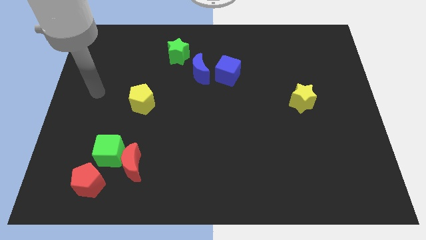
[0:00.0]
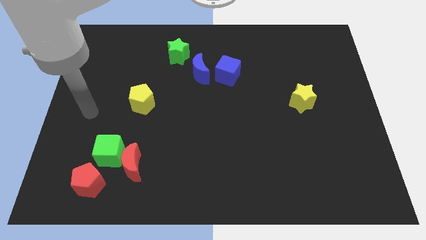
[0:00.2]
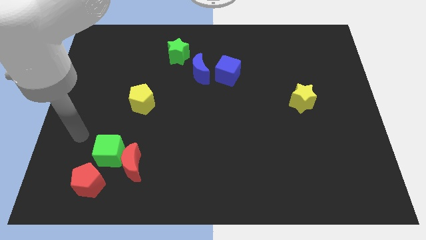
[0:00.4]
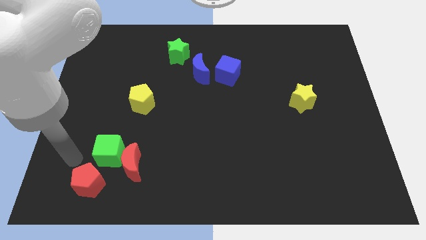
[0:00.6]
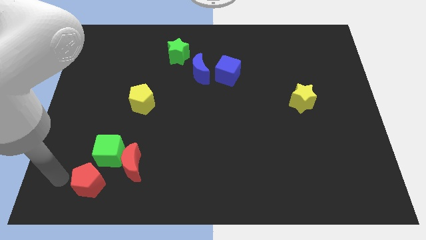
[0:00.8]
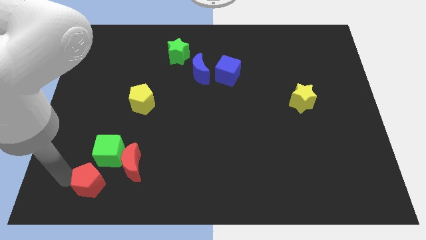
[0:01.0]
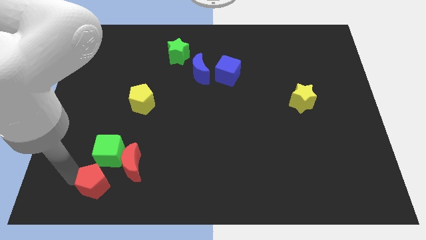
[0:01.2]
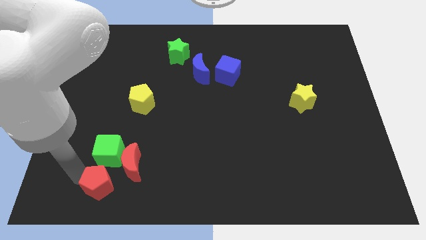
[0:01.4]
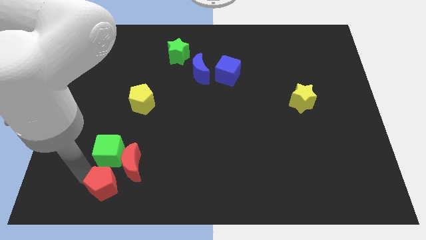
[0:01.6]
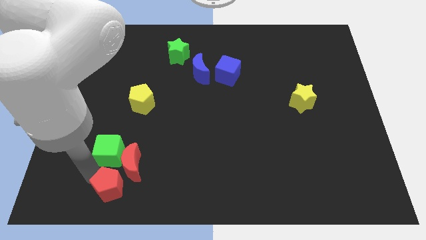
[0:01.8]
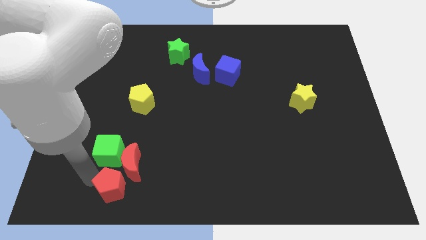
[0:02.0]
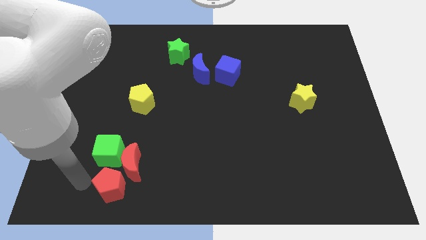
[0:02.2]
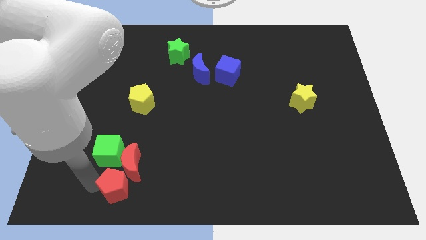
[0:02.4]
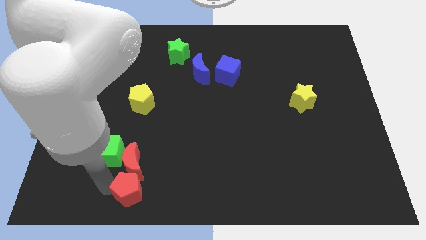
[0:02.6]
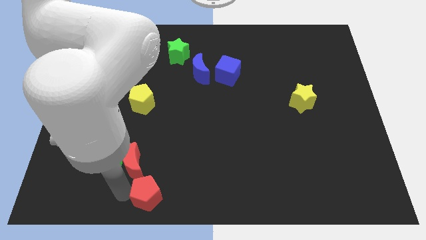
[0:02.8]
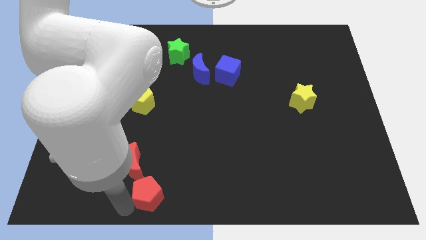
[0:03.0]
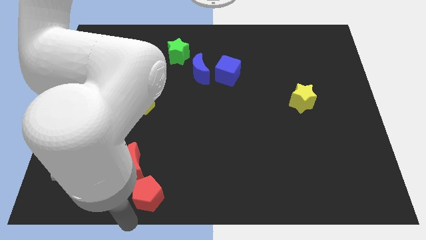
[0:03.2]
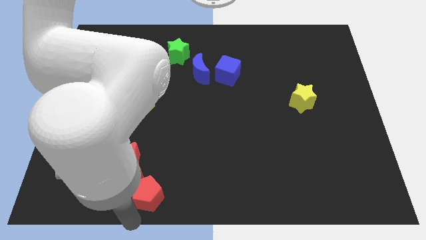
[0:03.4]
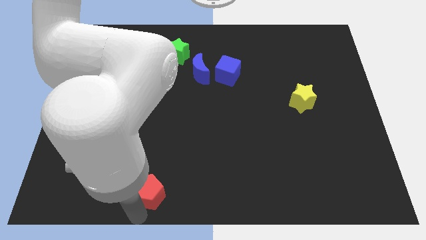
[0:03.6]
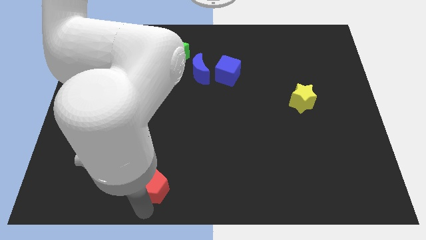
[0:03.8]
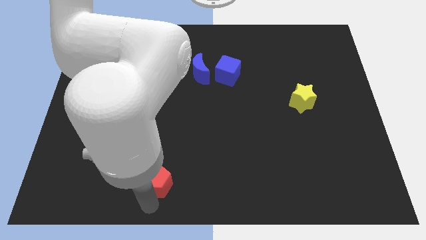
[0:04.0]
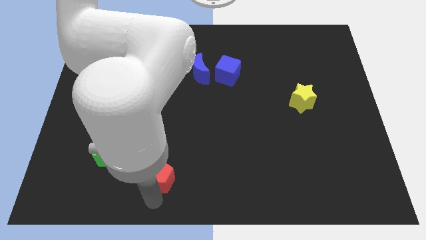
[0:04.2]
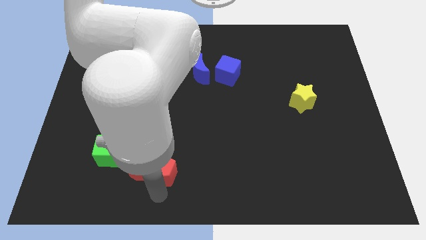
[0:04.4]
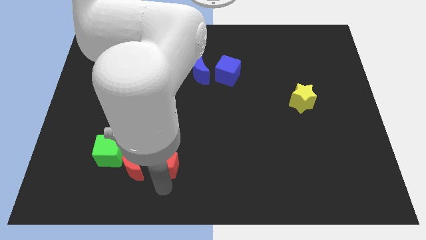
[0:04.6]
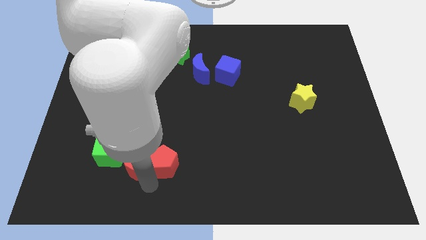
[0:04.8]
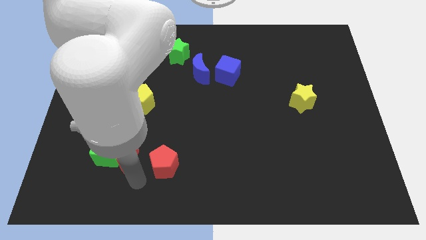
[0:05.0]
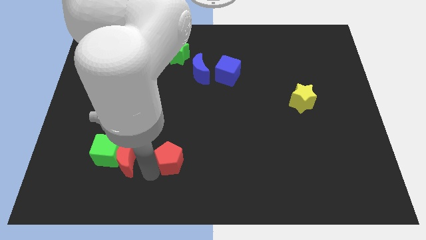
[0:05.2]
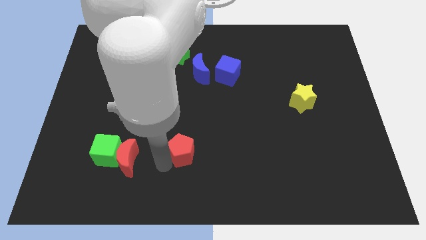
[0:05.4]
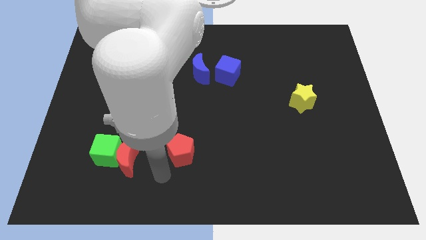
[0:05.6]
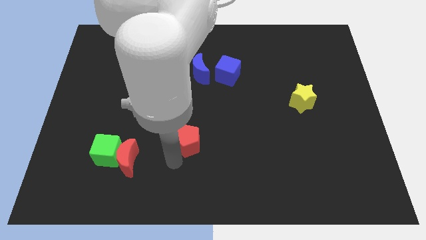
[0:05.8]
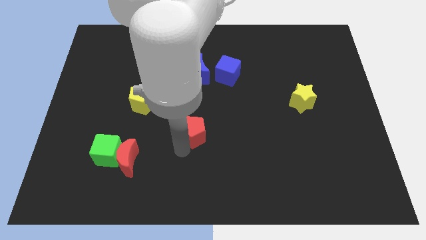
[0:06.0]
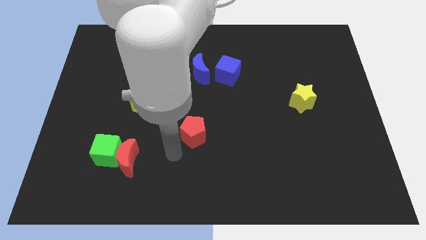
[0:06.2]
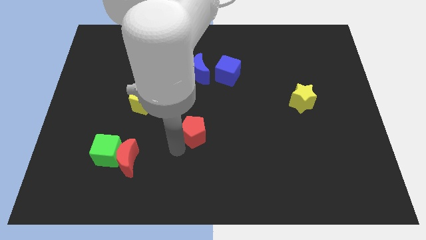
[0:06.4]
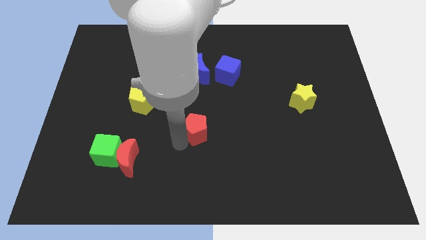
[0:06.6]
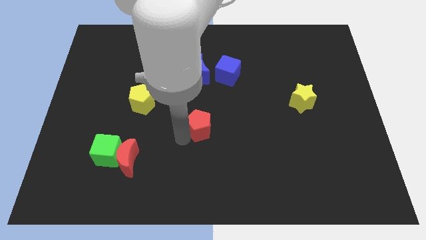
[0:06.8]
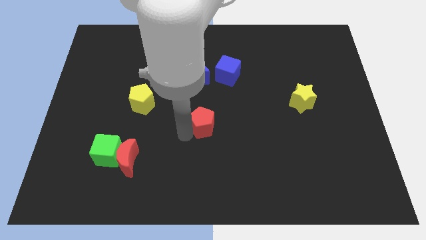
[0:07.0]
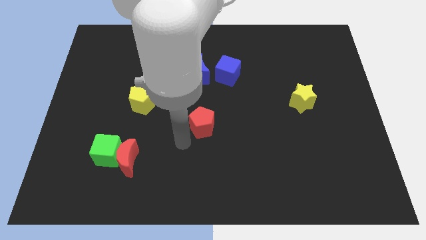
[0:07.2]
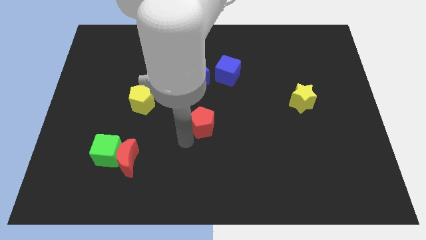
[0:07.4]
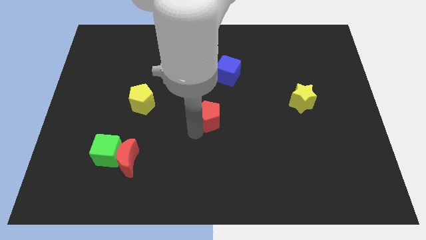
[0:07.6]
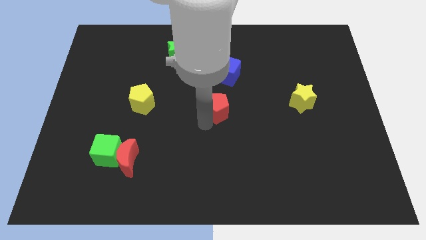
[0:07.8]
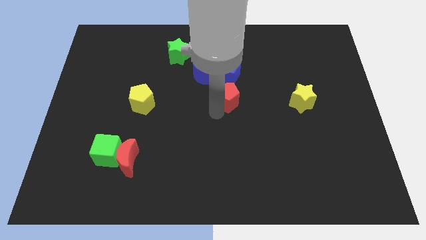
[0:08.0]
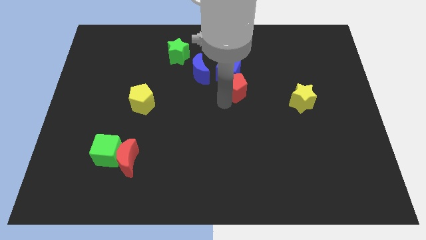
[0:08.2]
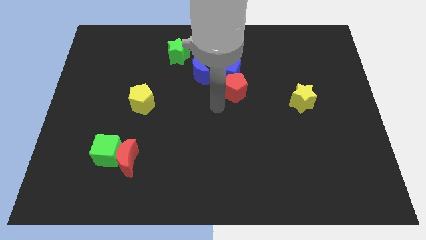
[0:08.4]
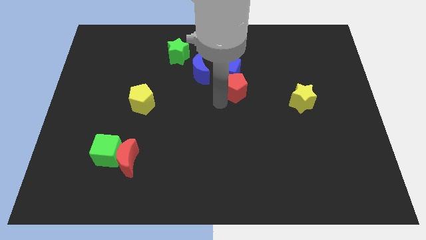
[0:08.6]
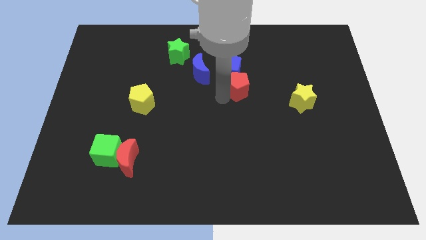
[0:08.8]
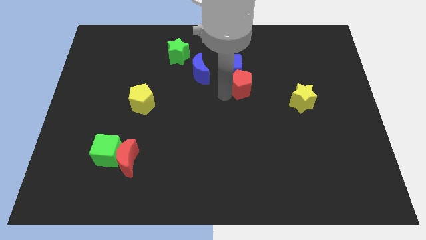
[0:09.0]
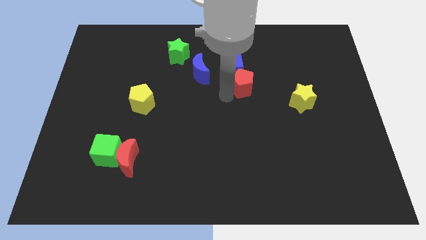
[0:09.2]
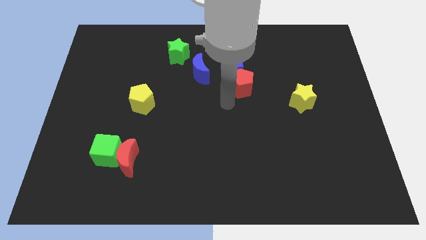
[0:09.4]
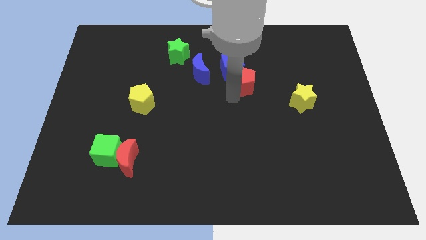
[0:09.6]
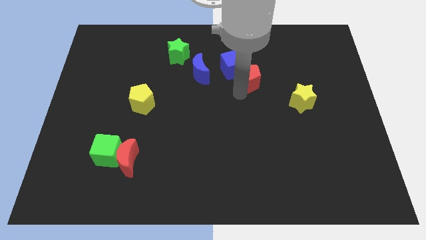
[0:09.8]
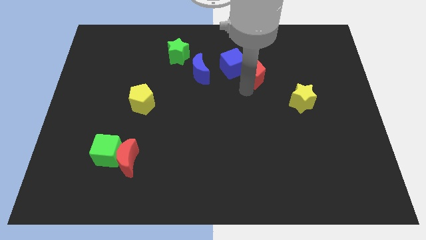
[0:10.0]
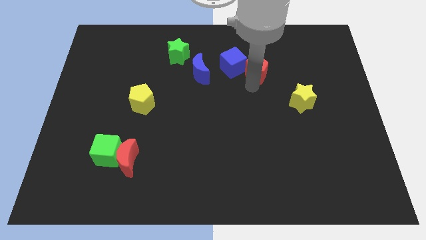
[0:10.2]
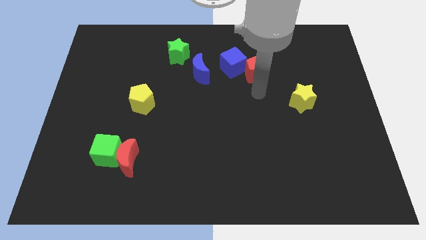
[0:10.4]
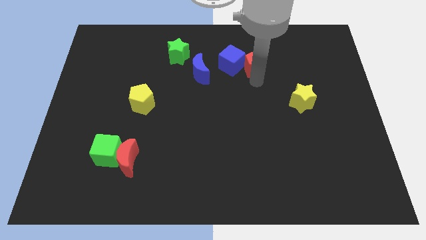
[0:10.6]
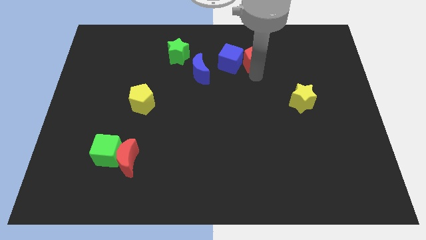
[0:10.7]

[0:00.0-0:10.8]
put the red pentagon to the top right side of the blue cube

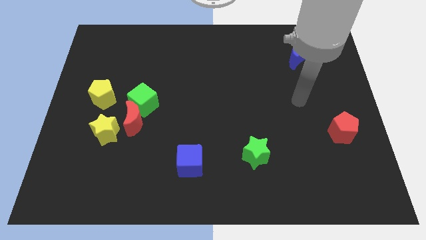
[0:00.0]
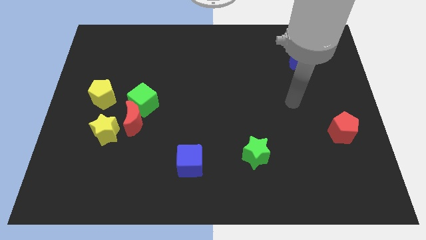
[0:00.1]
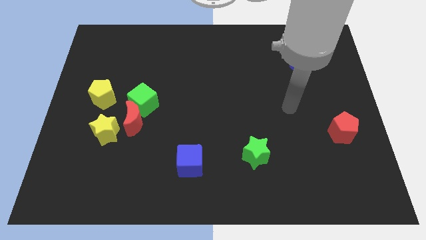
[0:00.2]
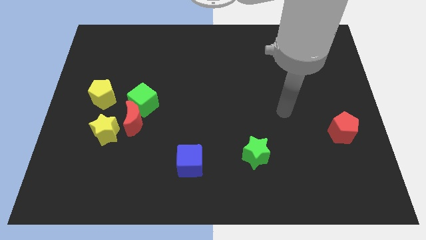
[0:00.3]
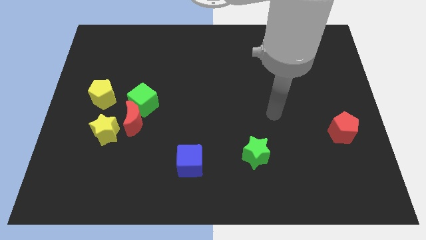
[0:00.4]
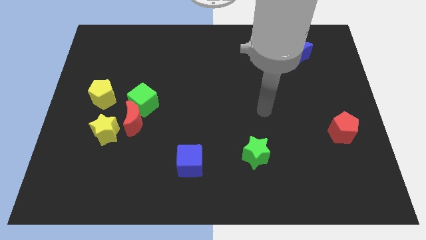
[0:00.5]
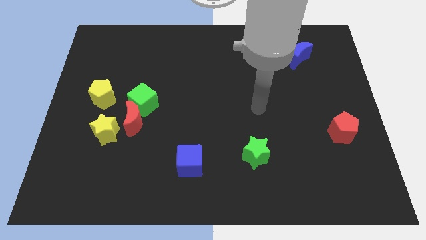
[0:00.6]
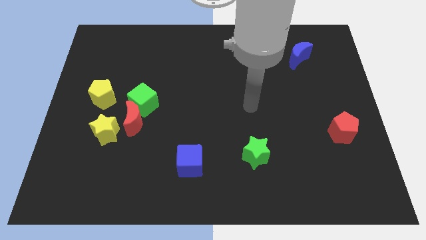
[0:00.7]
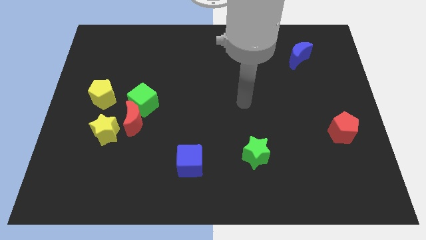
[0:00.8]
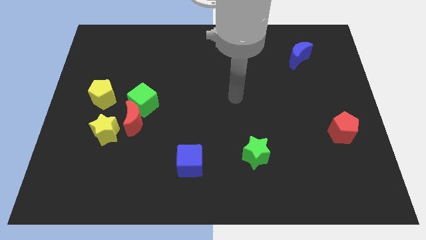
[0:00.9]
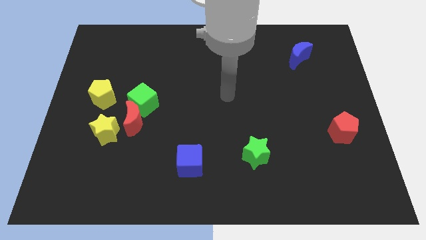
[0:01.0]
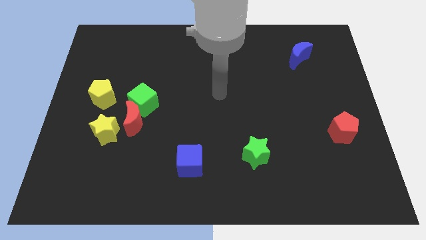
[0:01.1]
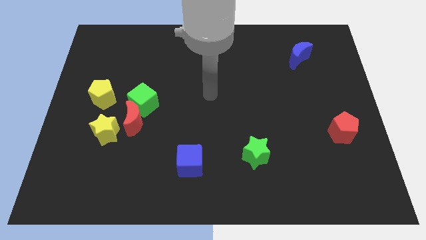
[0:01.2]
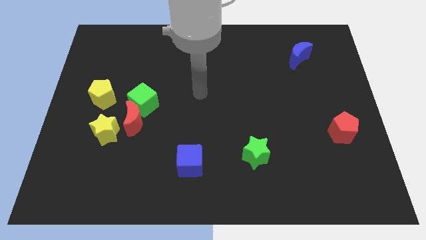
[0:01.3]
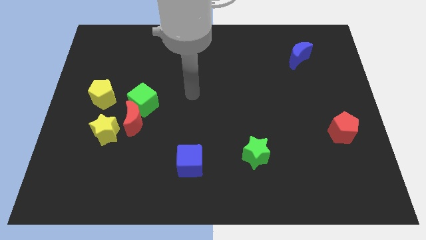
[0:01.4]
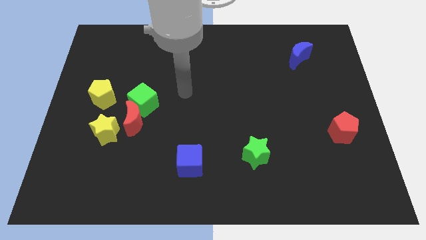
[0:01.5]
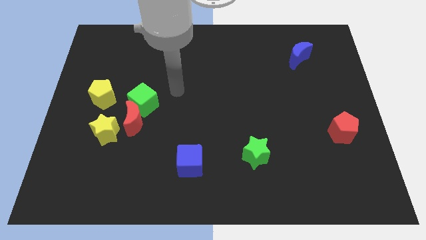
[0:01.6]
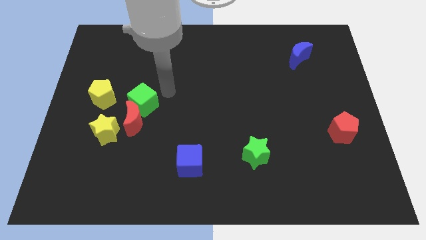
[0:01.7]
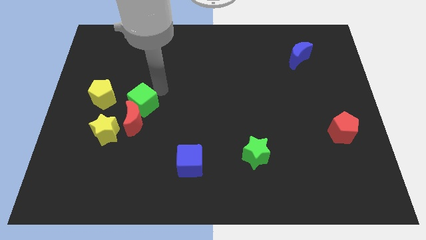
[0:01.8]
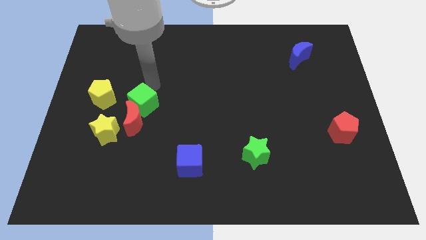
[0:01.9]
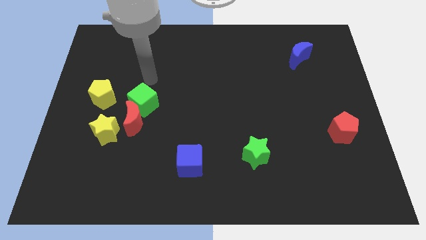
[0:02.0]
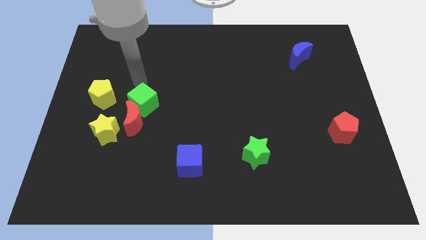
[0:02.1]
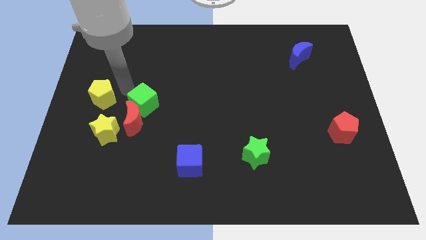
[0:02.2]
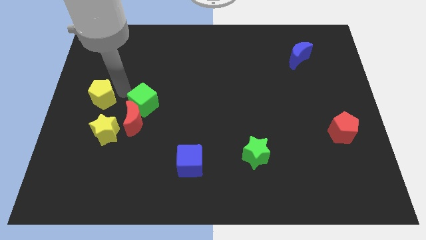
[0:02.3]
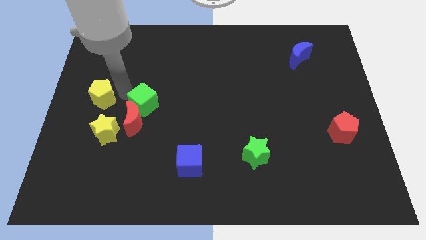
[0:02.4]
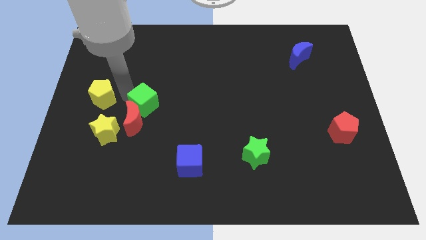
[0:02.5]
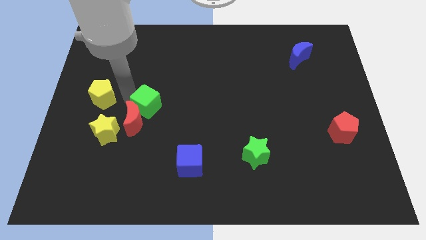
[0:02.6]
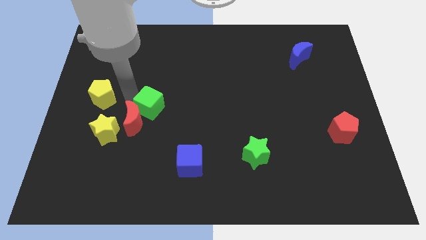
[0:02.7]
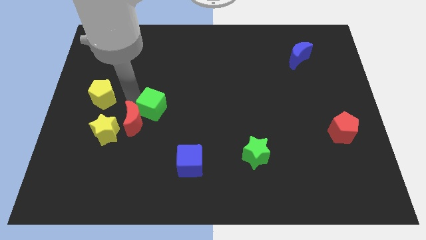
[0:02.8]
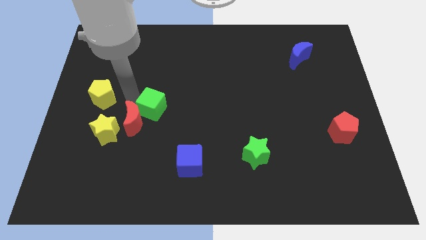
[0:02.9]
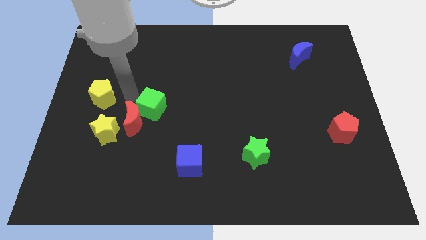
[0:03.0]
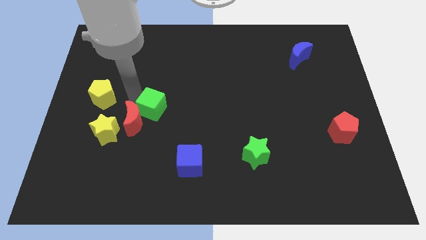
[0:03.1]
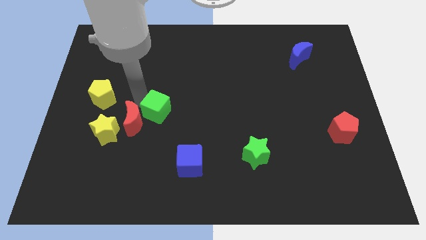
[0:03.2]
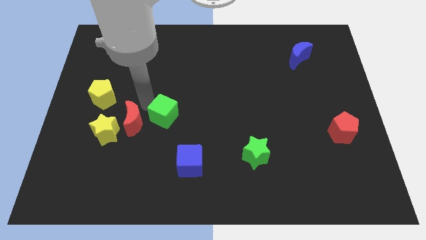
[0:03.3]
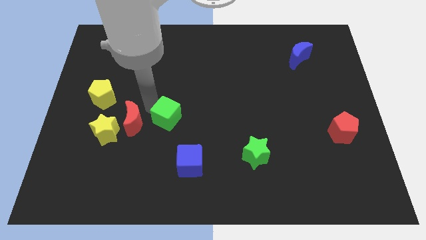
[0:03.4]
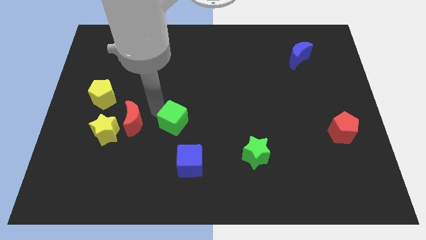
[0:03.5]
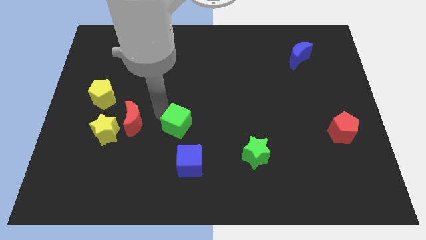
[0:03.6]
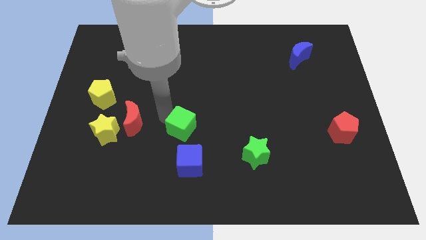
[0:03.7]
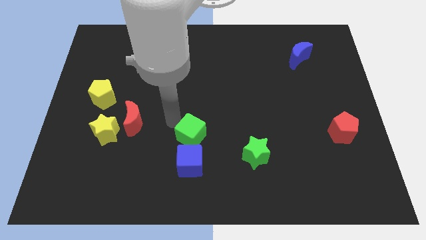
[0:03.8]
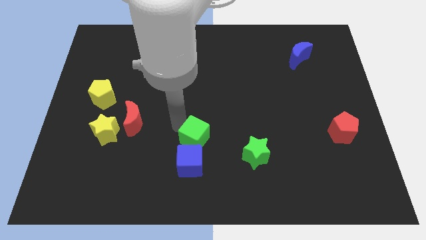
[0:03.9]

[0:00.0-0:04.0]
push the green cube to the top right of the blue cube
